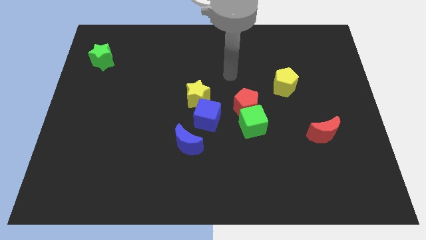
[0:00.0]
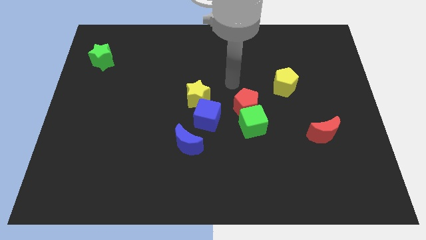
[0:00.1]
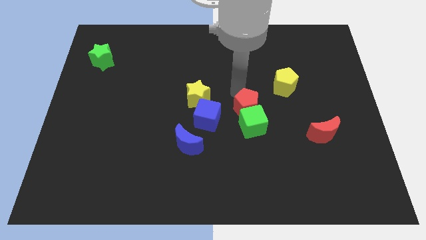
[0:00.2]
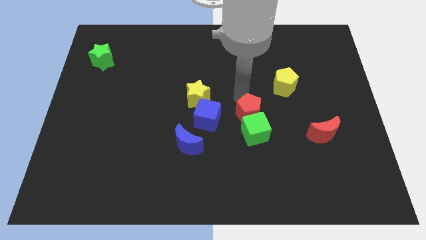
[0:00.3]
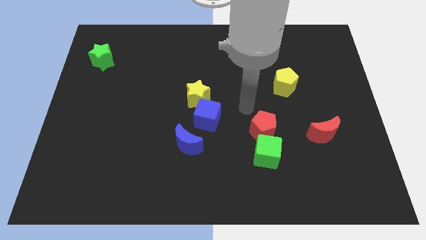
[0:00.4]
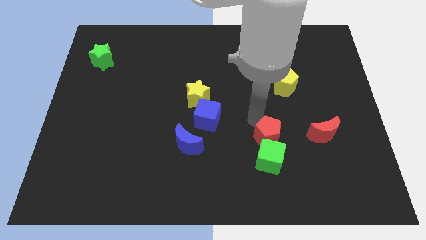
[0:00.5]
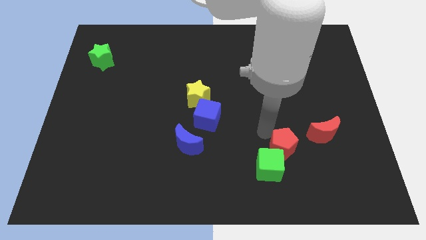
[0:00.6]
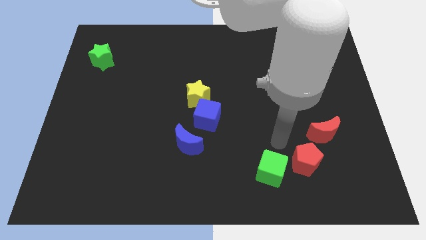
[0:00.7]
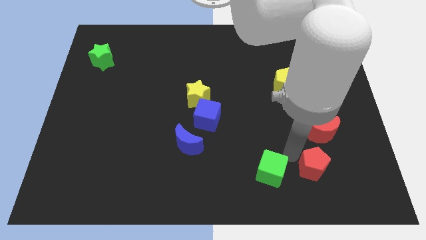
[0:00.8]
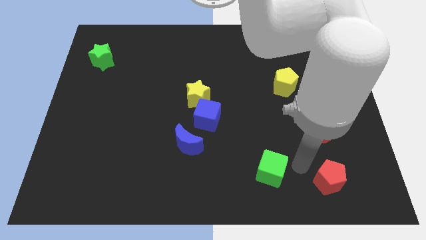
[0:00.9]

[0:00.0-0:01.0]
pull the green cube apart from the red pentagon

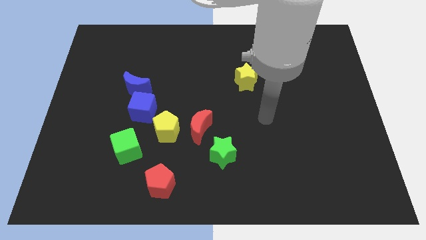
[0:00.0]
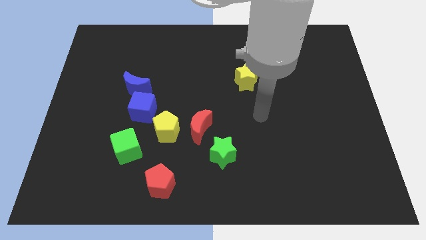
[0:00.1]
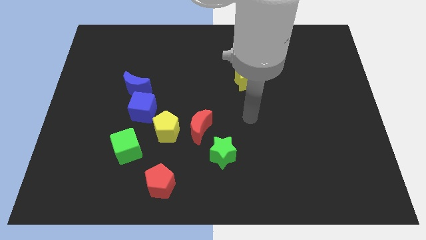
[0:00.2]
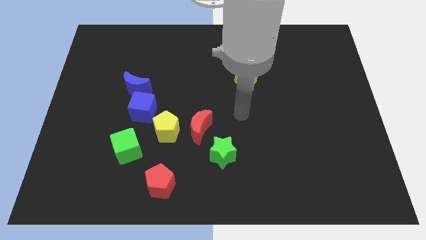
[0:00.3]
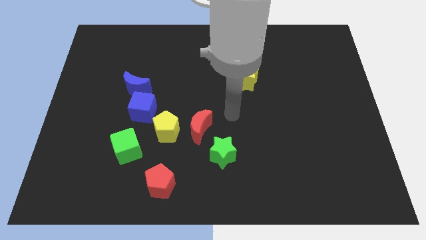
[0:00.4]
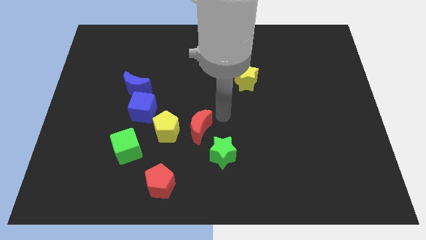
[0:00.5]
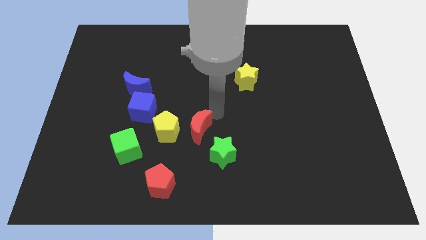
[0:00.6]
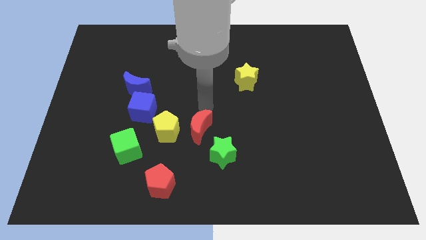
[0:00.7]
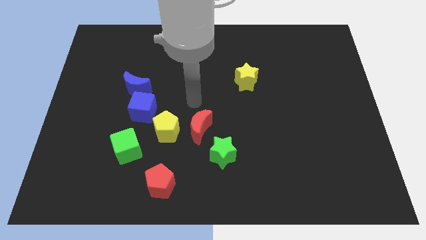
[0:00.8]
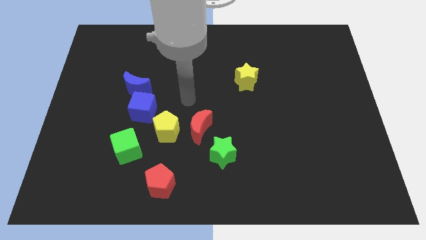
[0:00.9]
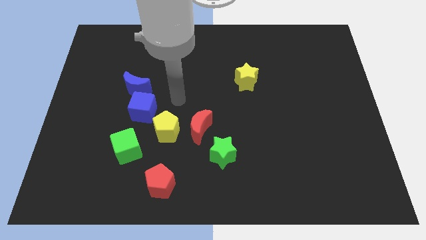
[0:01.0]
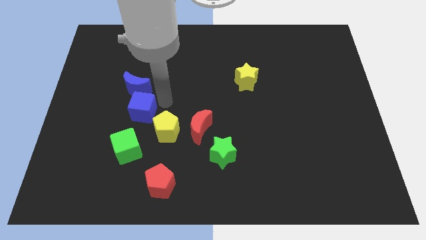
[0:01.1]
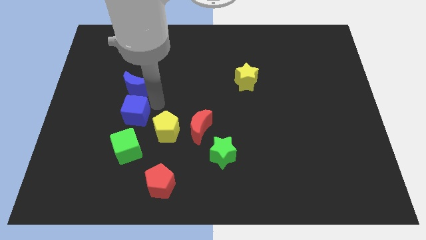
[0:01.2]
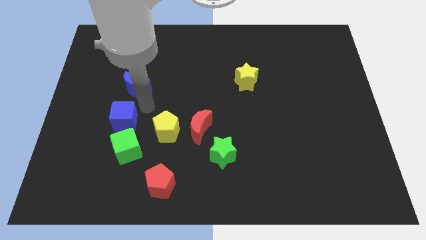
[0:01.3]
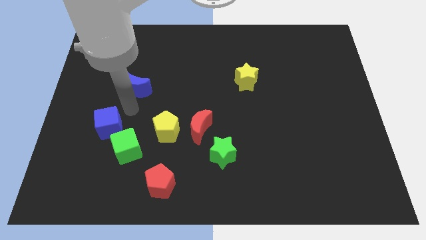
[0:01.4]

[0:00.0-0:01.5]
separate the blue moon from the blue cube

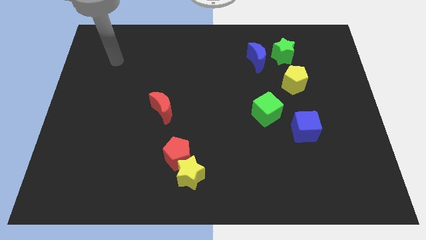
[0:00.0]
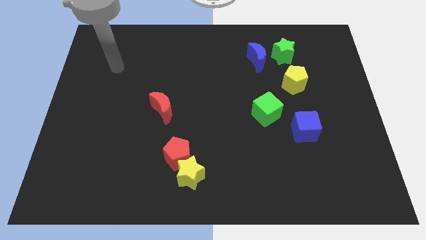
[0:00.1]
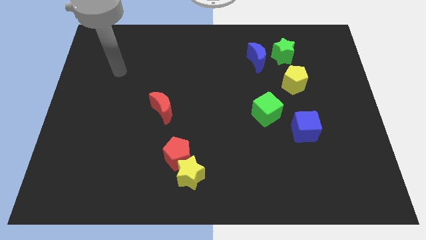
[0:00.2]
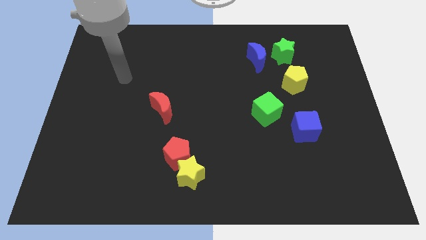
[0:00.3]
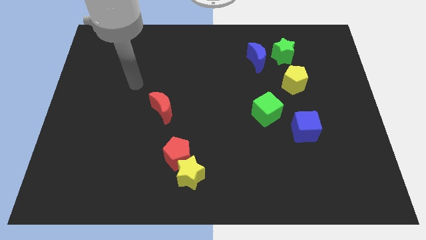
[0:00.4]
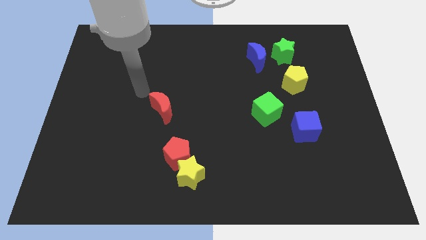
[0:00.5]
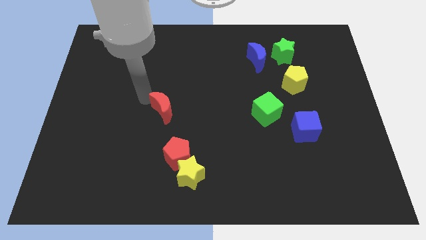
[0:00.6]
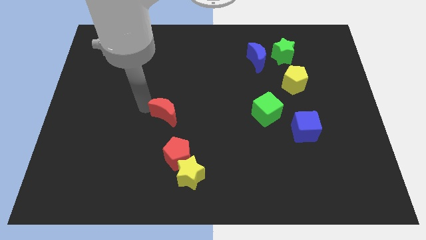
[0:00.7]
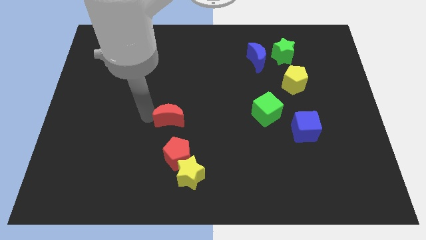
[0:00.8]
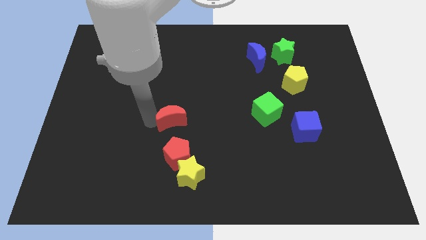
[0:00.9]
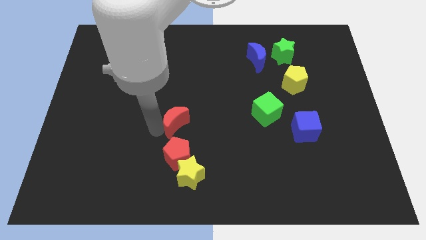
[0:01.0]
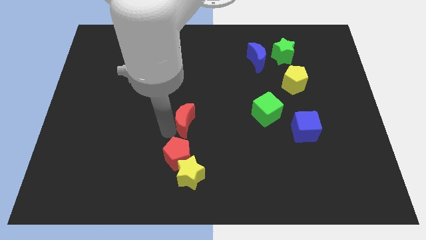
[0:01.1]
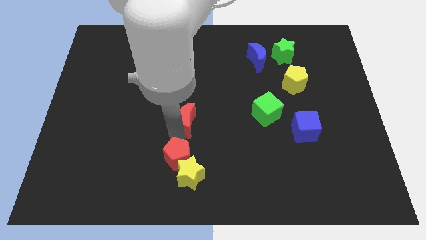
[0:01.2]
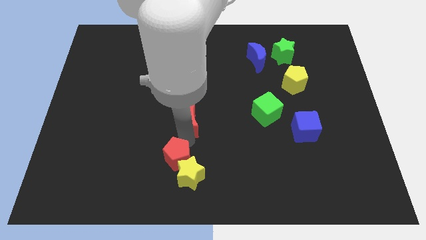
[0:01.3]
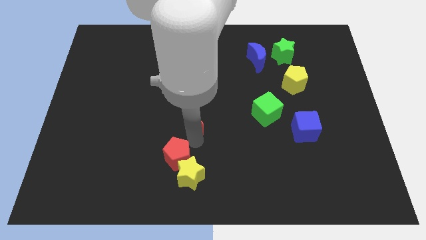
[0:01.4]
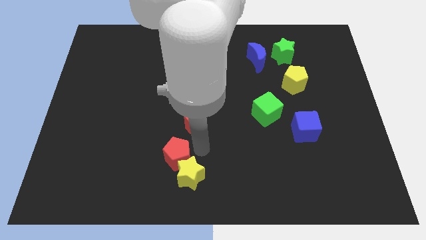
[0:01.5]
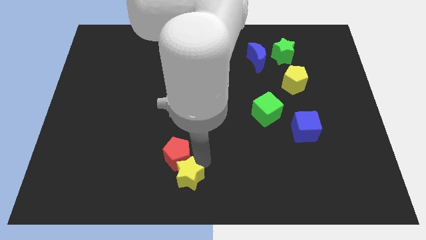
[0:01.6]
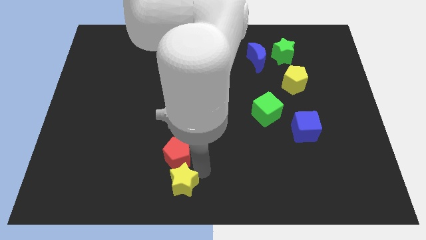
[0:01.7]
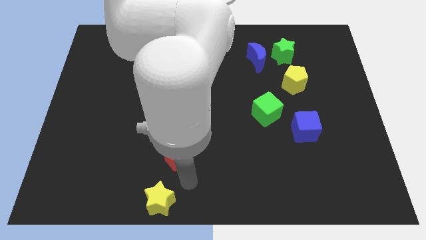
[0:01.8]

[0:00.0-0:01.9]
move the red pentagon away from the yellow star

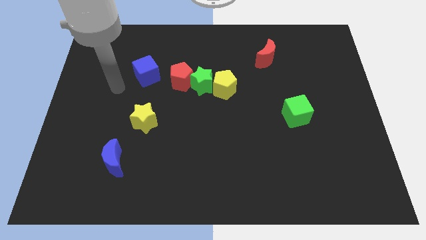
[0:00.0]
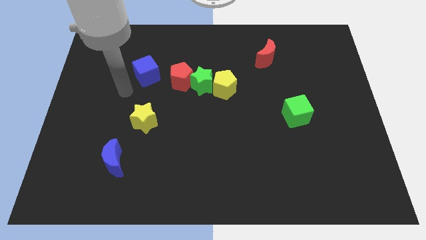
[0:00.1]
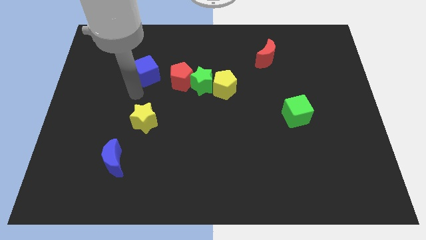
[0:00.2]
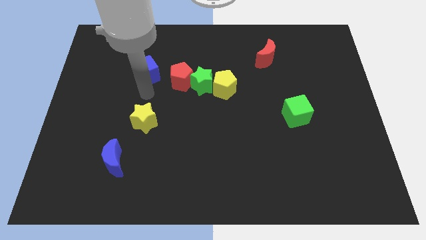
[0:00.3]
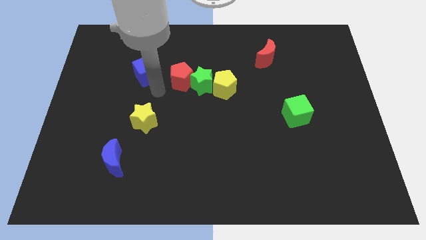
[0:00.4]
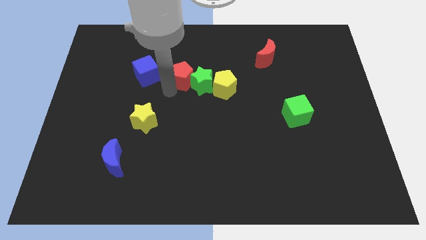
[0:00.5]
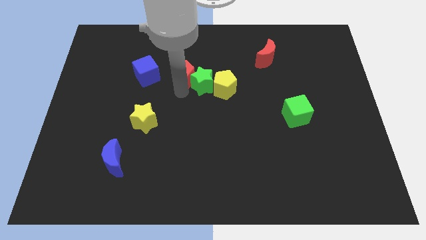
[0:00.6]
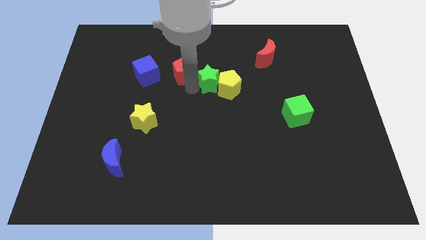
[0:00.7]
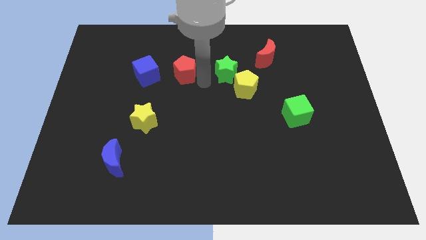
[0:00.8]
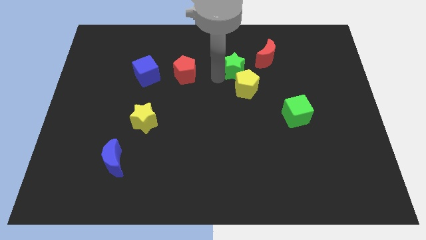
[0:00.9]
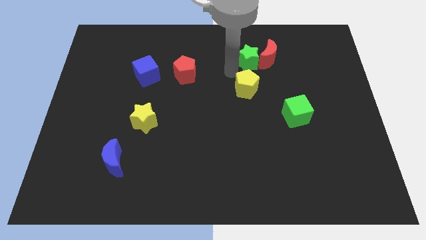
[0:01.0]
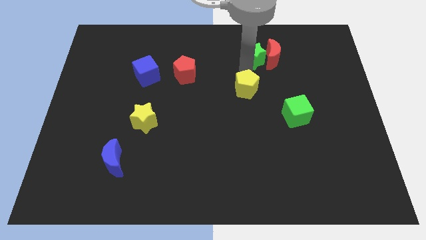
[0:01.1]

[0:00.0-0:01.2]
separate the yellow pentagon from the green star

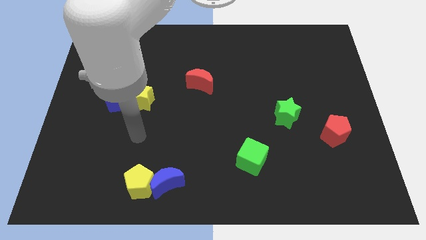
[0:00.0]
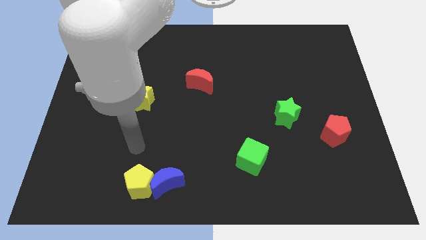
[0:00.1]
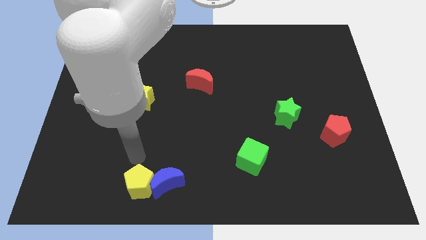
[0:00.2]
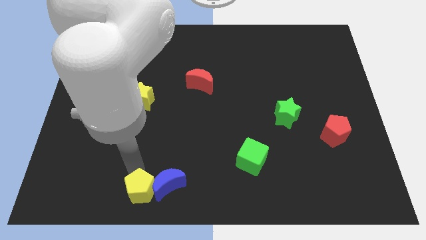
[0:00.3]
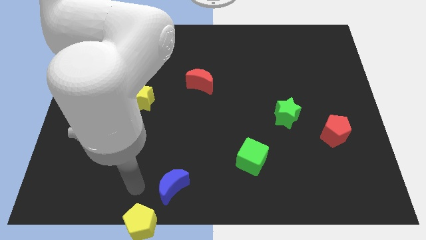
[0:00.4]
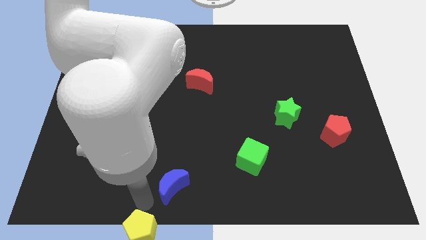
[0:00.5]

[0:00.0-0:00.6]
pull the blue moon apart from the yellow pentagon

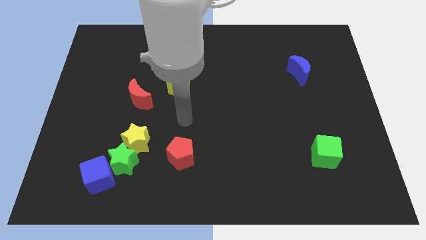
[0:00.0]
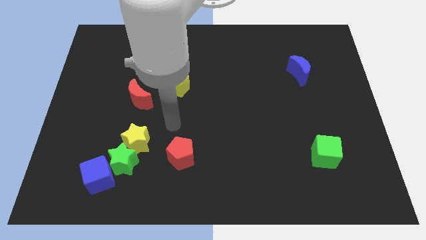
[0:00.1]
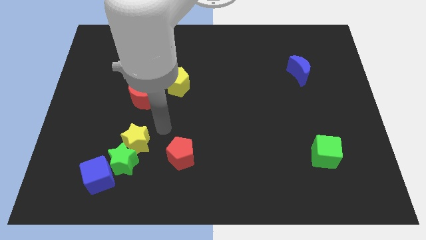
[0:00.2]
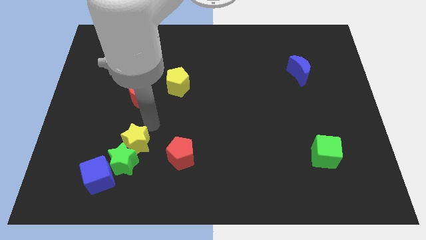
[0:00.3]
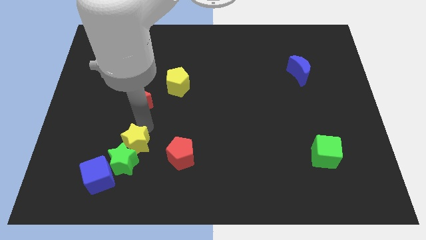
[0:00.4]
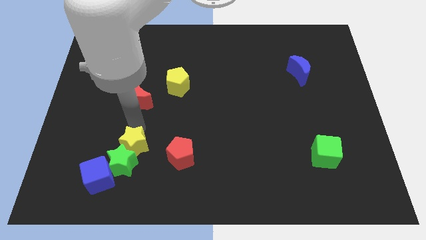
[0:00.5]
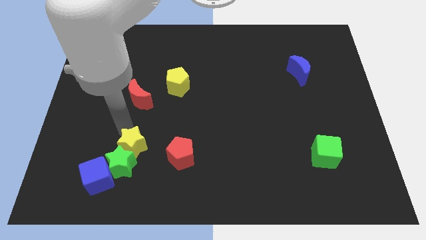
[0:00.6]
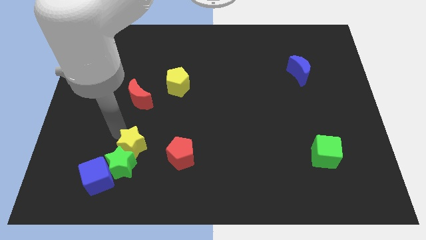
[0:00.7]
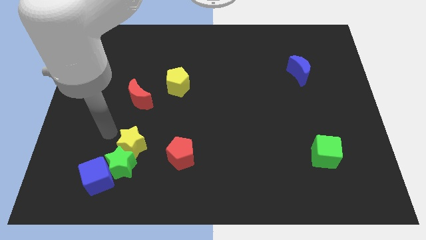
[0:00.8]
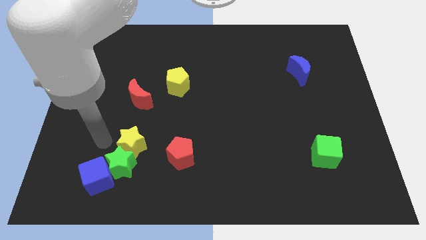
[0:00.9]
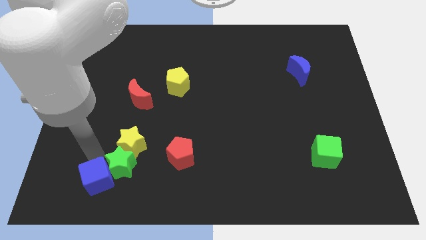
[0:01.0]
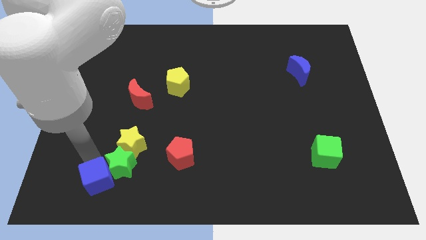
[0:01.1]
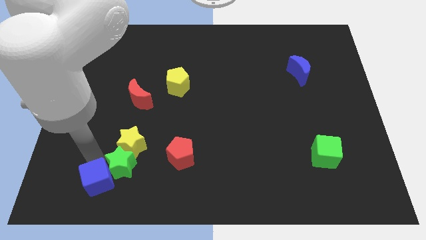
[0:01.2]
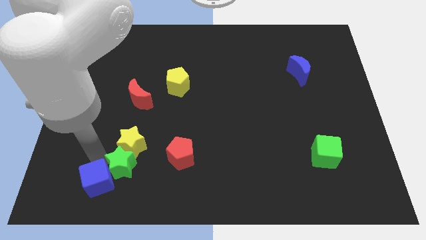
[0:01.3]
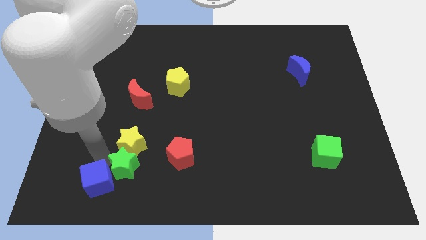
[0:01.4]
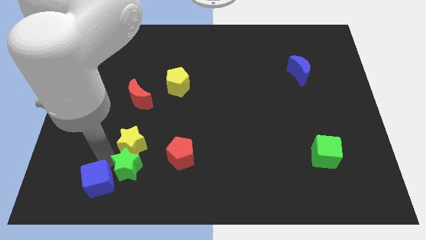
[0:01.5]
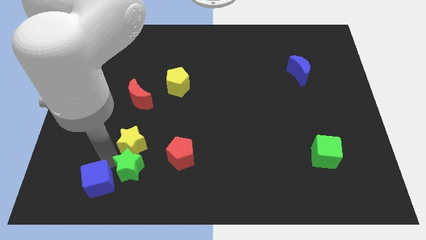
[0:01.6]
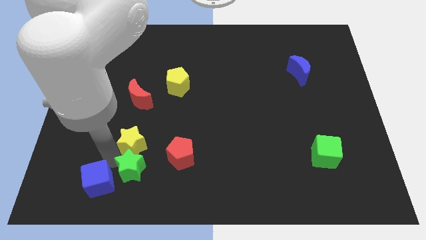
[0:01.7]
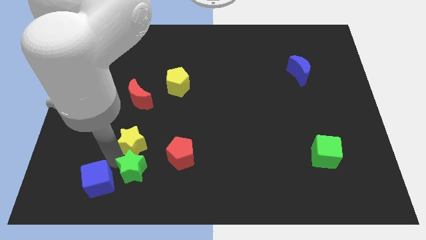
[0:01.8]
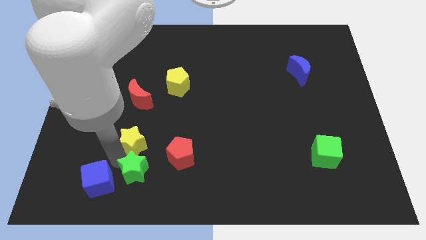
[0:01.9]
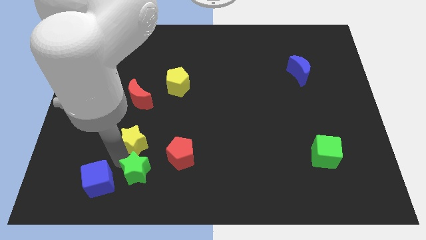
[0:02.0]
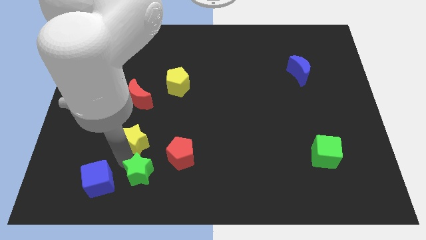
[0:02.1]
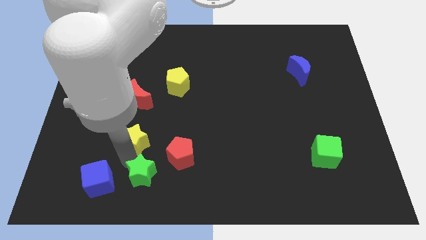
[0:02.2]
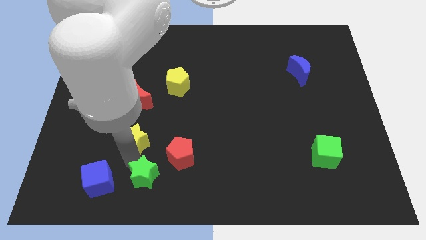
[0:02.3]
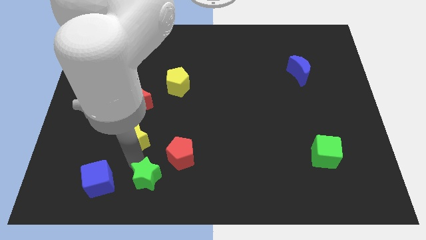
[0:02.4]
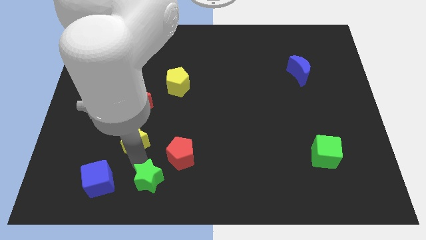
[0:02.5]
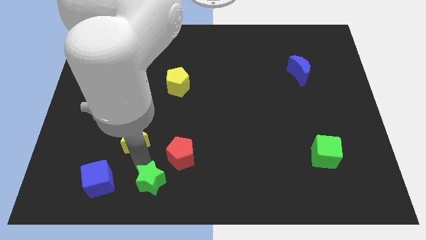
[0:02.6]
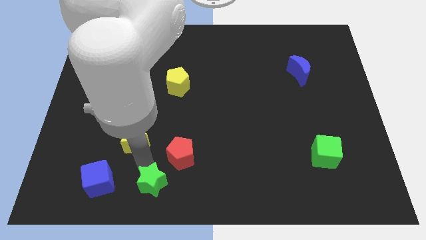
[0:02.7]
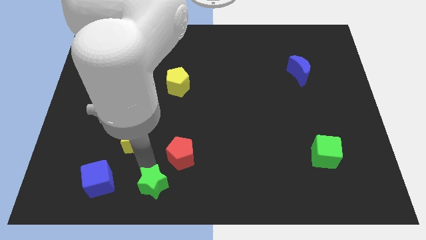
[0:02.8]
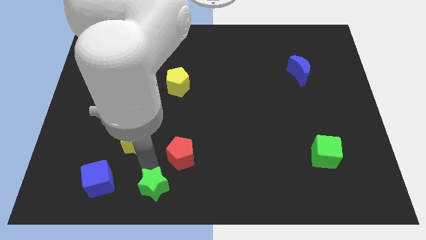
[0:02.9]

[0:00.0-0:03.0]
separate the green star from the yellow star and blue cube
